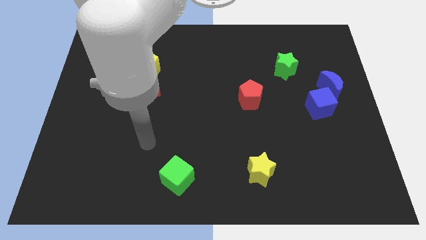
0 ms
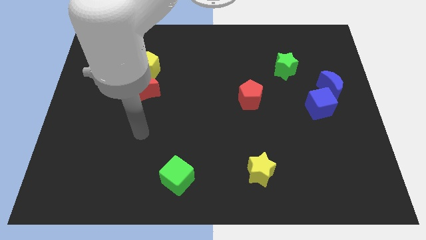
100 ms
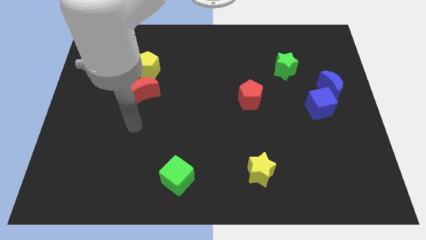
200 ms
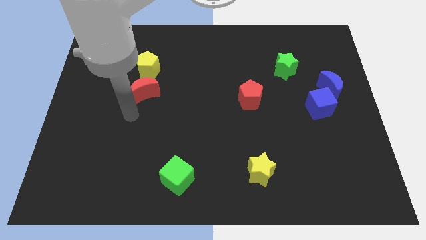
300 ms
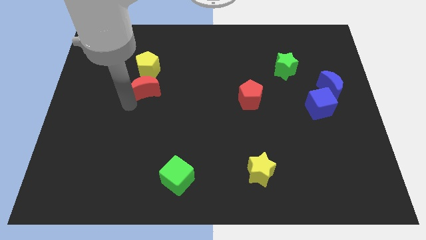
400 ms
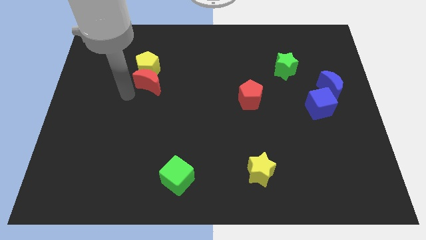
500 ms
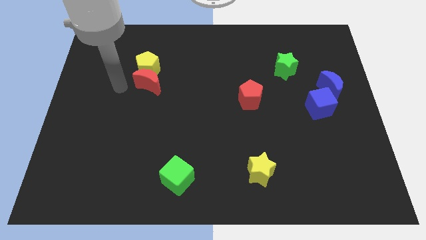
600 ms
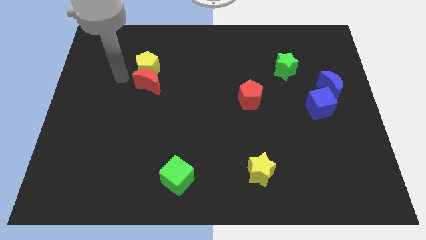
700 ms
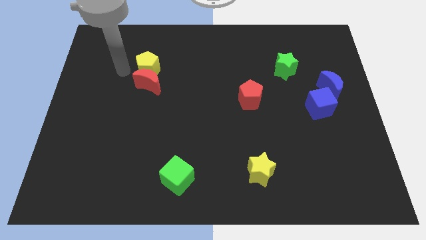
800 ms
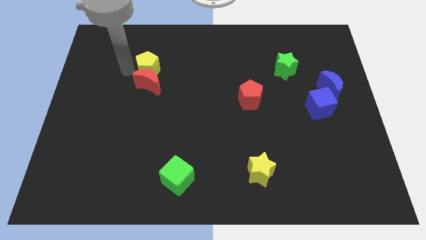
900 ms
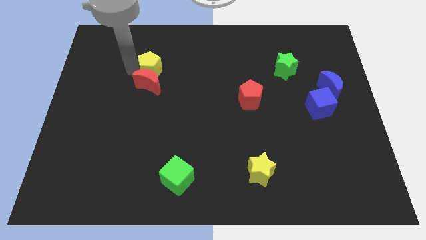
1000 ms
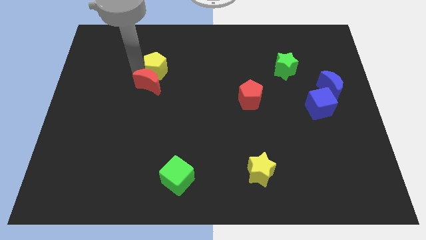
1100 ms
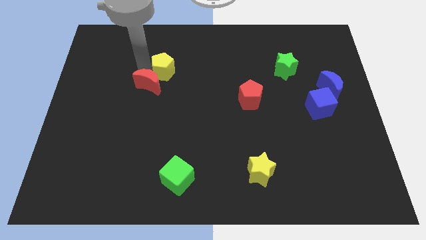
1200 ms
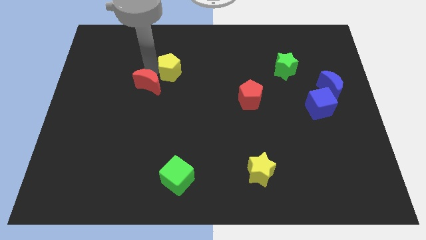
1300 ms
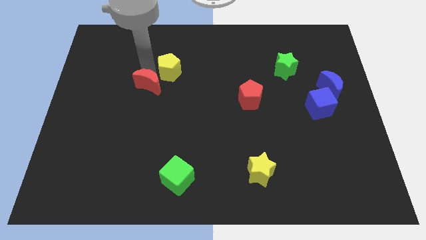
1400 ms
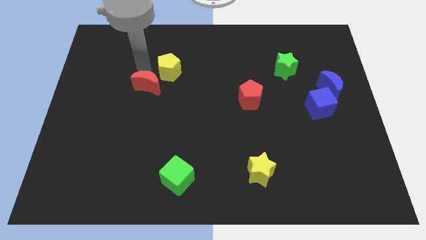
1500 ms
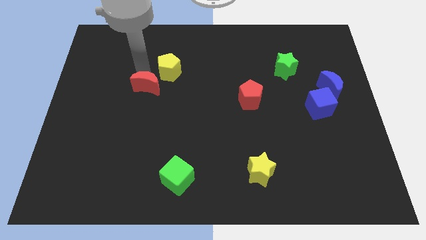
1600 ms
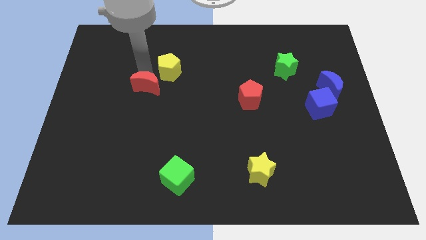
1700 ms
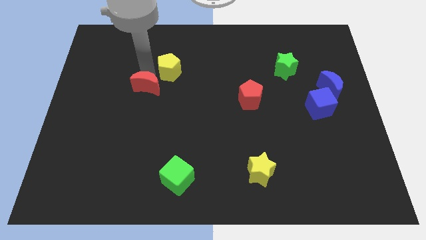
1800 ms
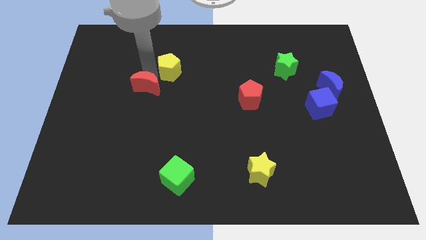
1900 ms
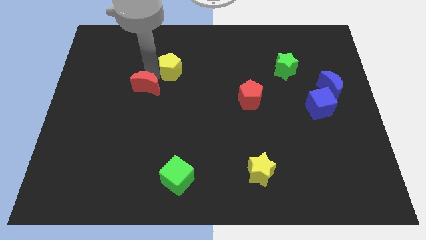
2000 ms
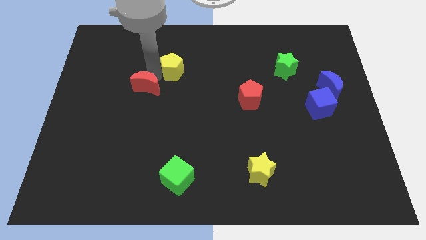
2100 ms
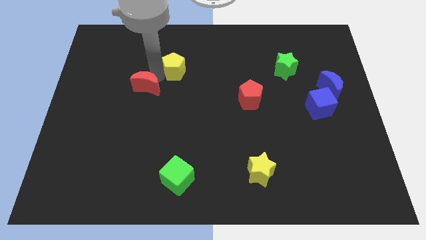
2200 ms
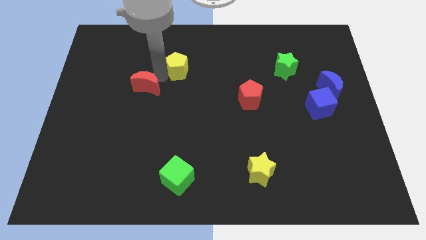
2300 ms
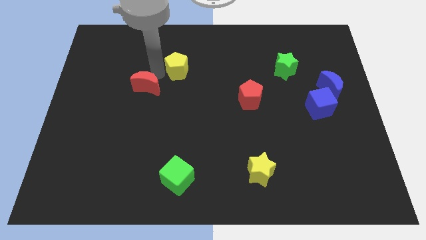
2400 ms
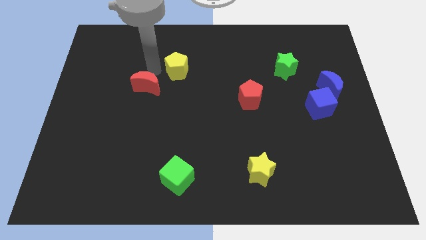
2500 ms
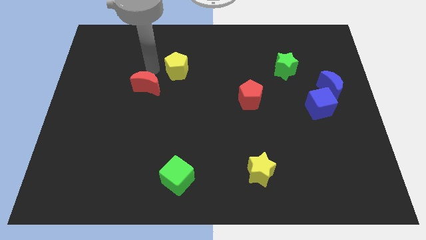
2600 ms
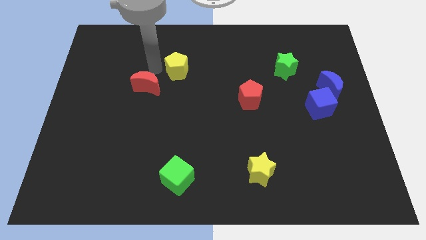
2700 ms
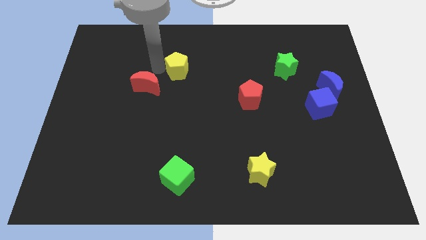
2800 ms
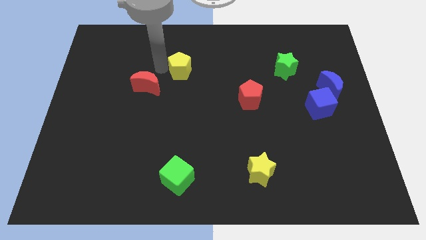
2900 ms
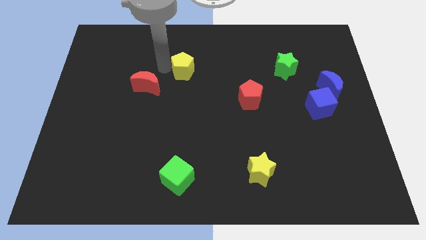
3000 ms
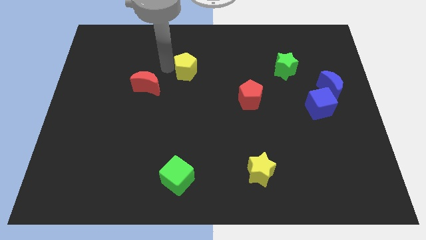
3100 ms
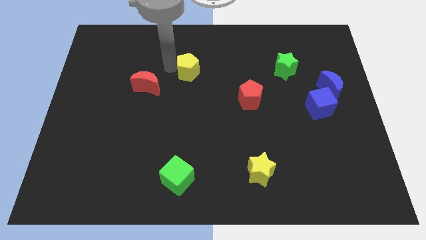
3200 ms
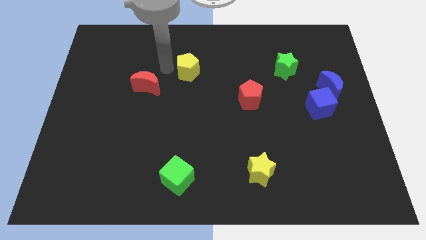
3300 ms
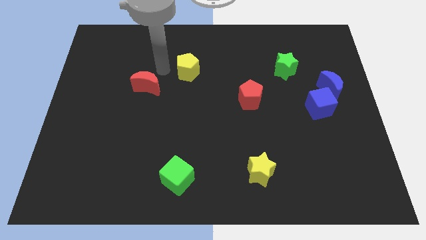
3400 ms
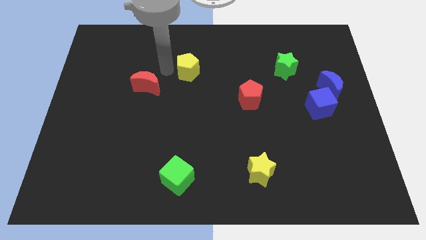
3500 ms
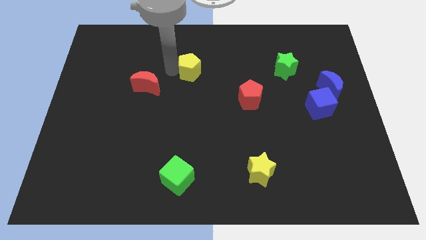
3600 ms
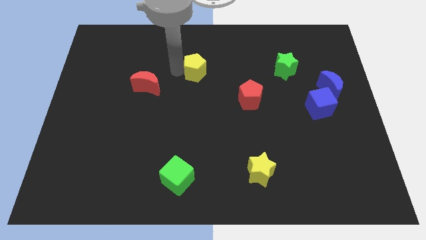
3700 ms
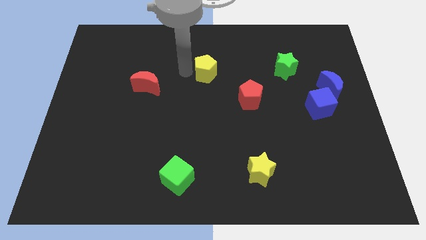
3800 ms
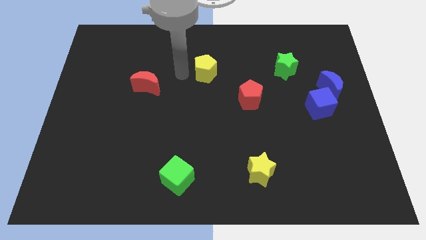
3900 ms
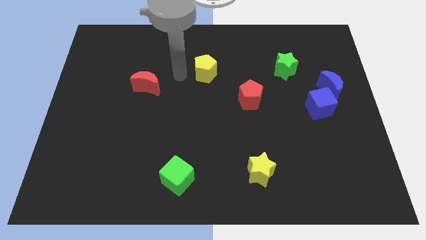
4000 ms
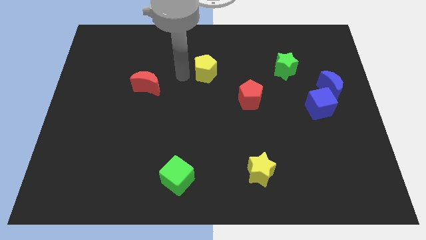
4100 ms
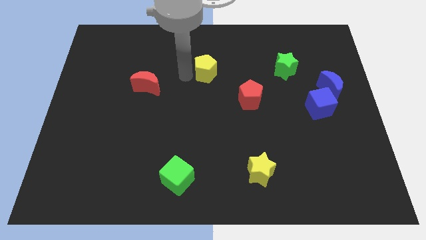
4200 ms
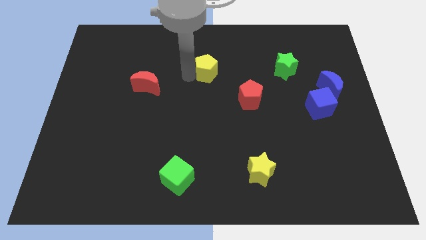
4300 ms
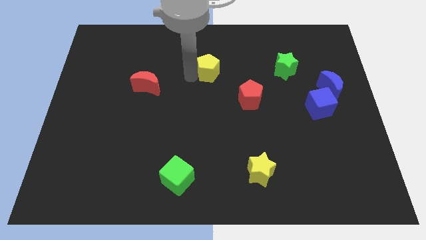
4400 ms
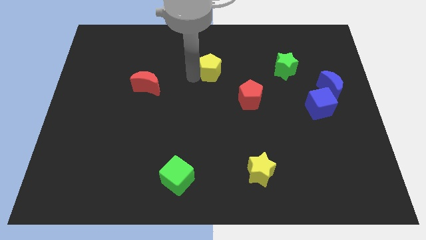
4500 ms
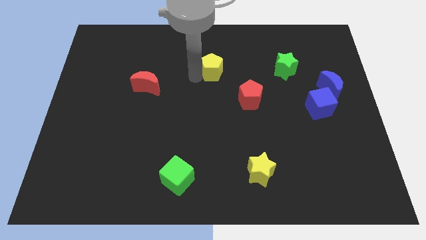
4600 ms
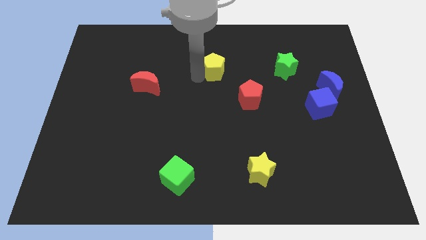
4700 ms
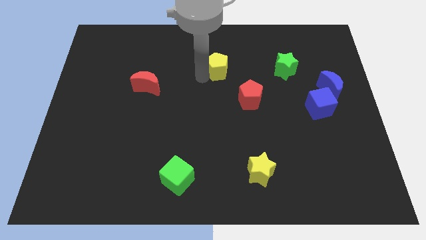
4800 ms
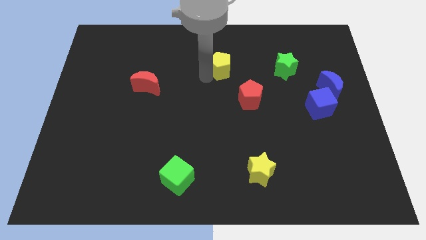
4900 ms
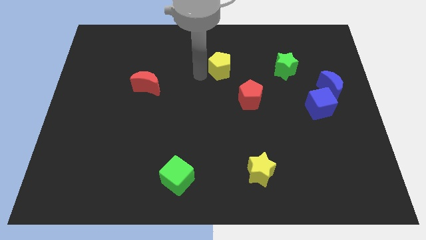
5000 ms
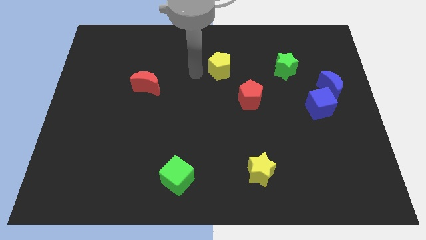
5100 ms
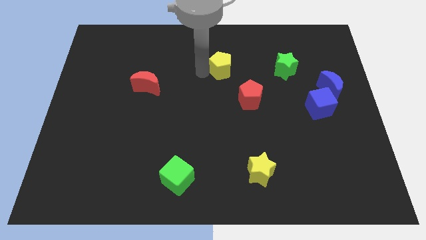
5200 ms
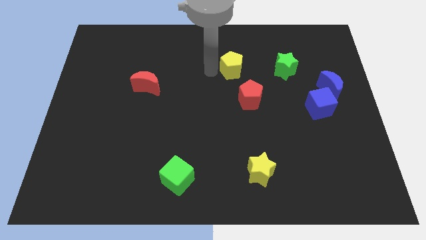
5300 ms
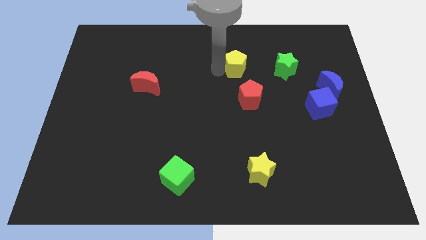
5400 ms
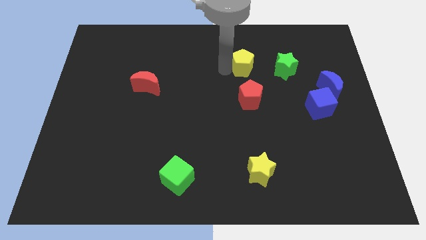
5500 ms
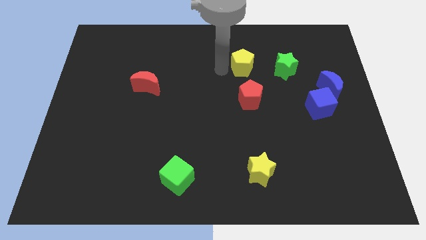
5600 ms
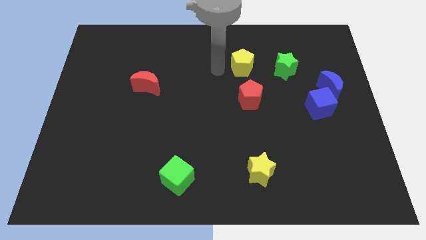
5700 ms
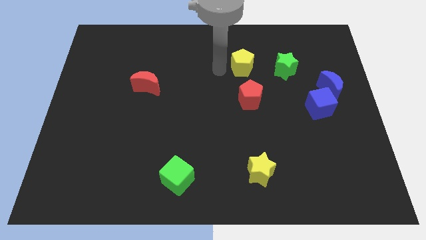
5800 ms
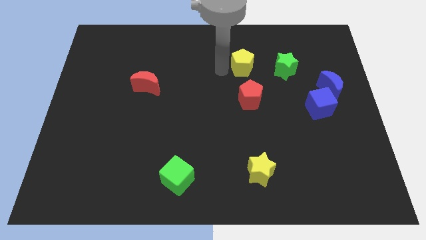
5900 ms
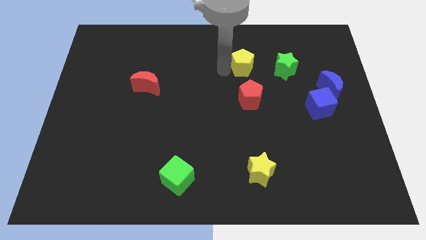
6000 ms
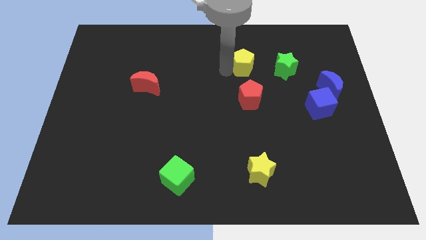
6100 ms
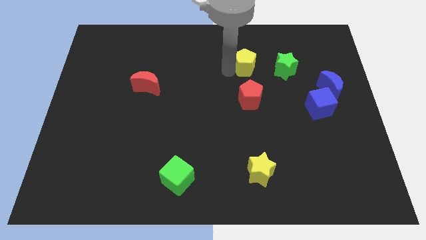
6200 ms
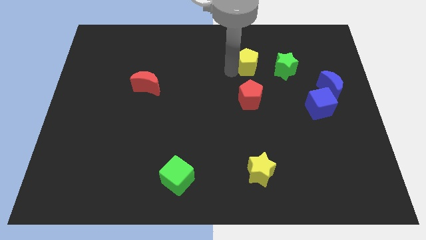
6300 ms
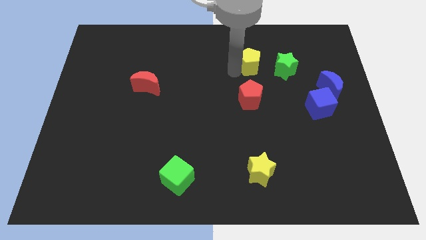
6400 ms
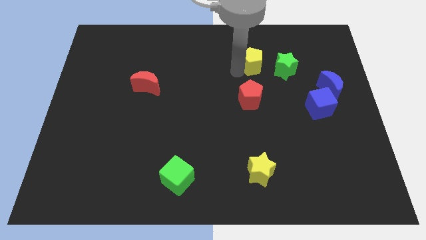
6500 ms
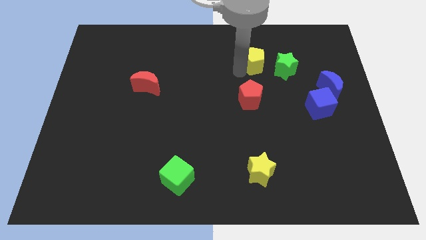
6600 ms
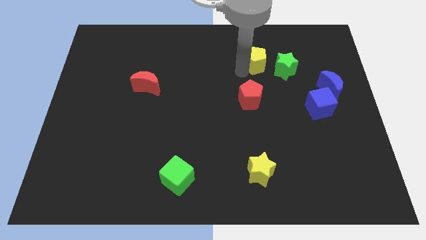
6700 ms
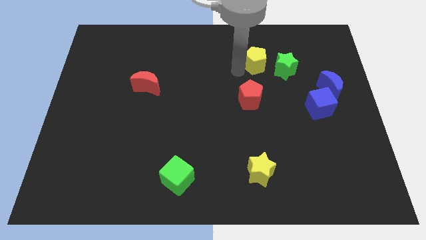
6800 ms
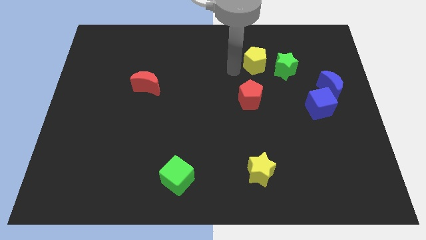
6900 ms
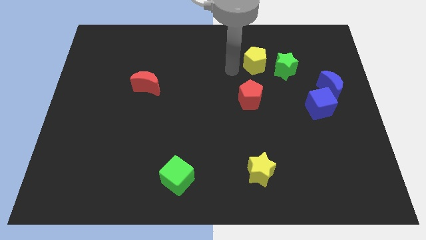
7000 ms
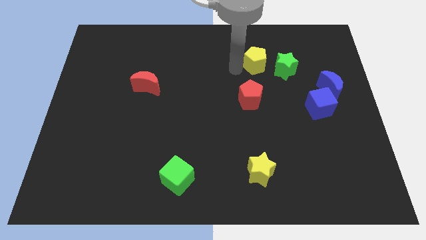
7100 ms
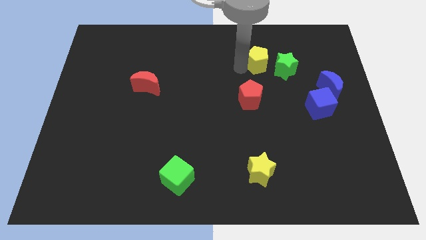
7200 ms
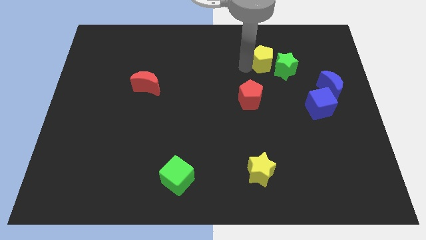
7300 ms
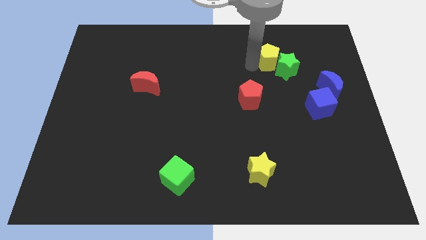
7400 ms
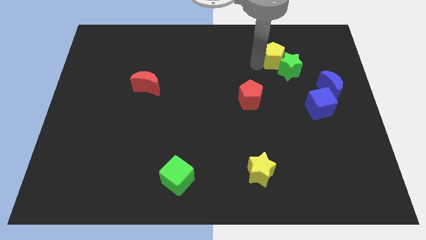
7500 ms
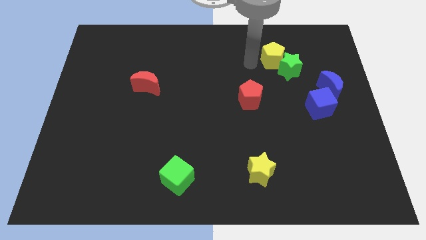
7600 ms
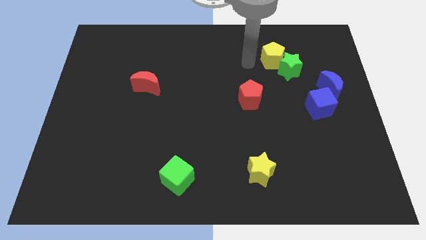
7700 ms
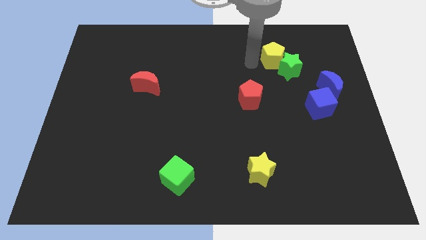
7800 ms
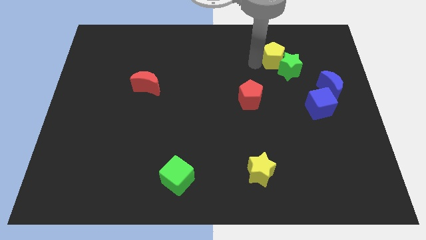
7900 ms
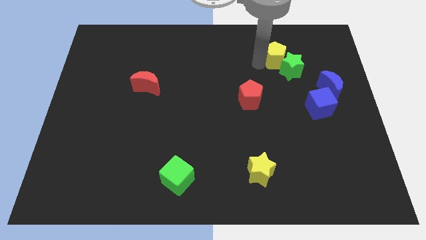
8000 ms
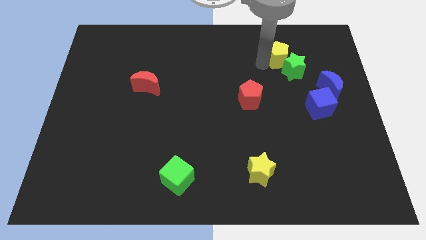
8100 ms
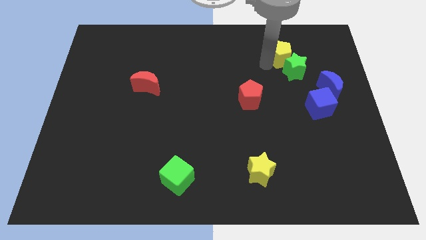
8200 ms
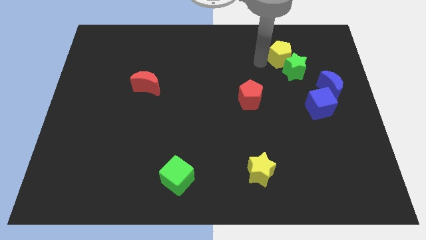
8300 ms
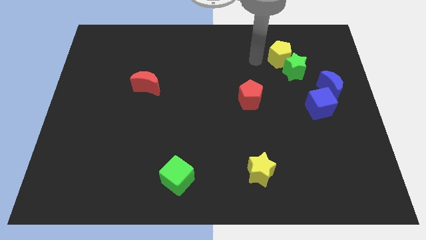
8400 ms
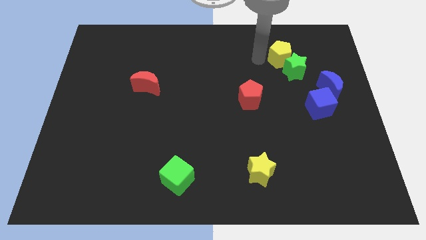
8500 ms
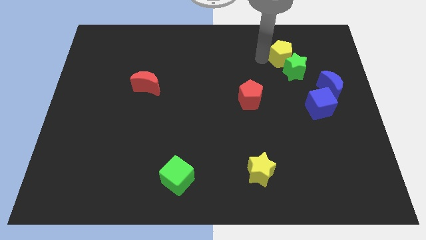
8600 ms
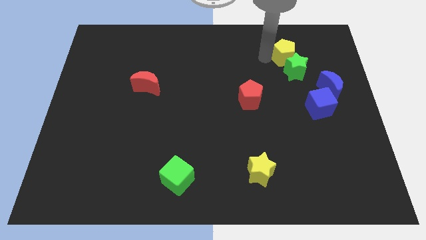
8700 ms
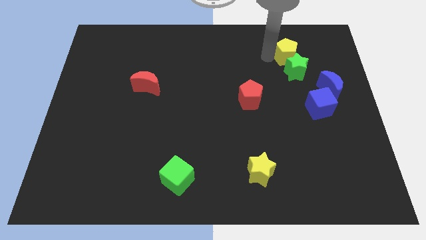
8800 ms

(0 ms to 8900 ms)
move the yellow pentagon to the top right of the green star
